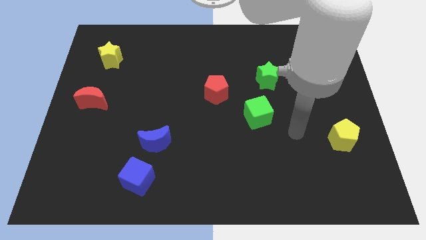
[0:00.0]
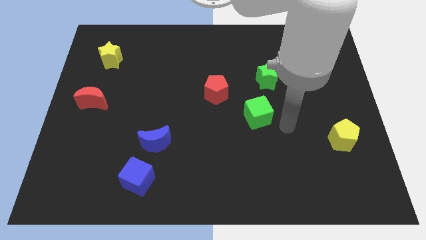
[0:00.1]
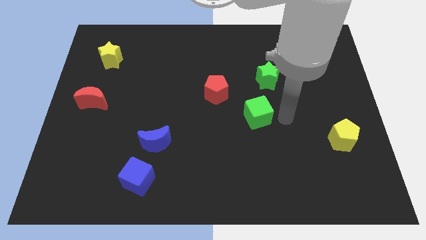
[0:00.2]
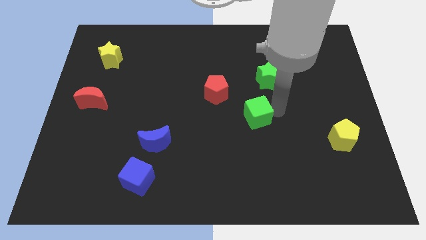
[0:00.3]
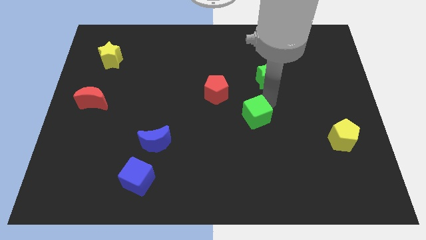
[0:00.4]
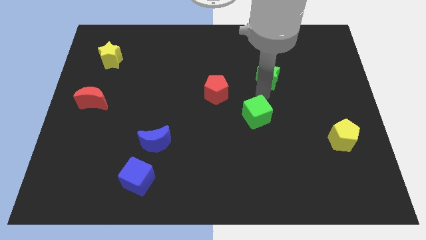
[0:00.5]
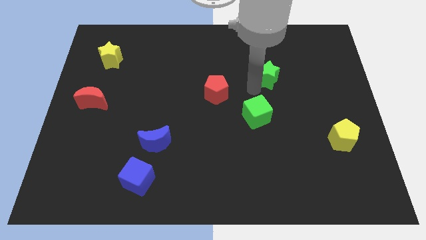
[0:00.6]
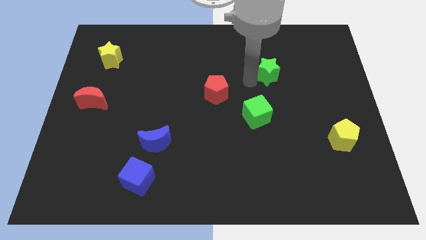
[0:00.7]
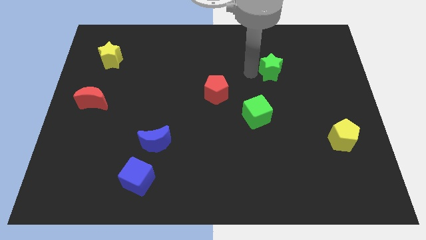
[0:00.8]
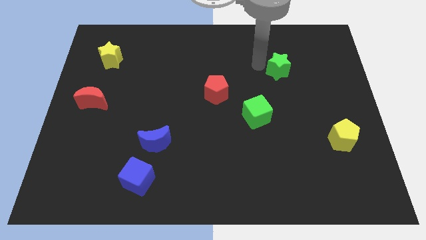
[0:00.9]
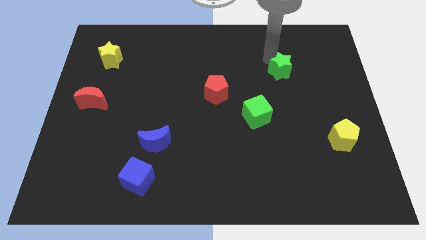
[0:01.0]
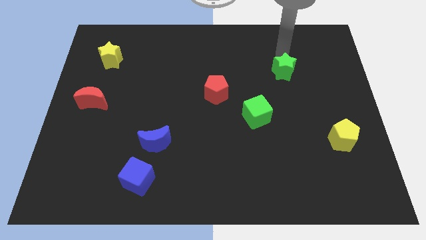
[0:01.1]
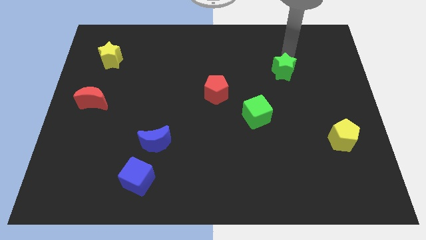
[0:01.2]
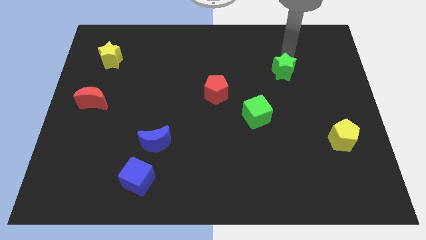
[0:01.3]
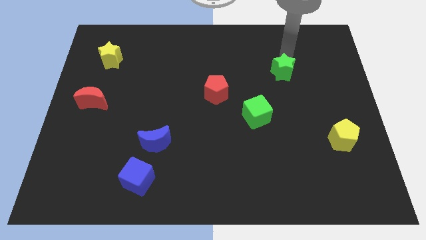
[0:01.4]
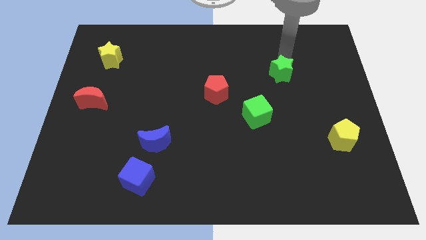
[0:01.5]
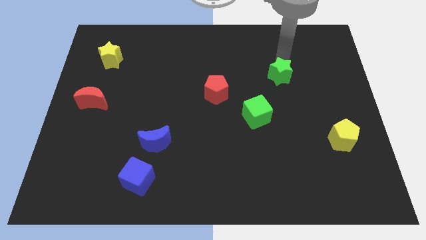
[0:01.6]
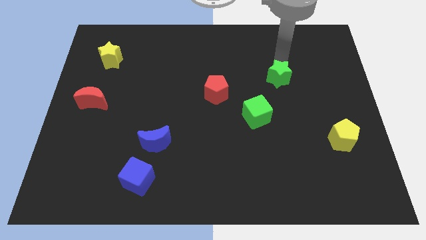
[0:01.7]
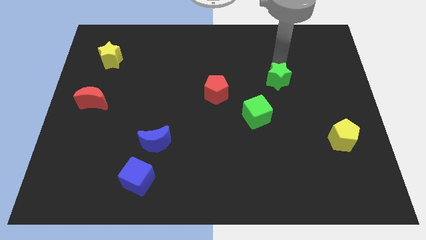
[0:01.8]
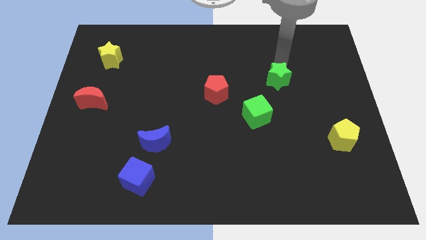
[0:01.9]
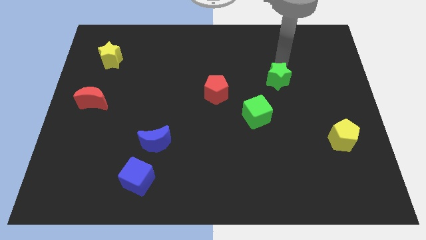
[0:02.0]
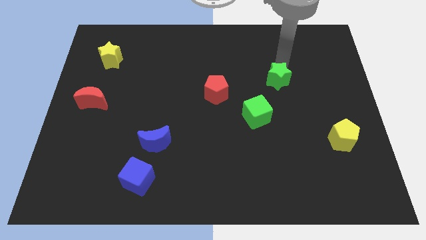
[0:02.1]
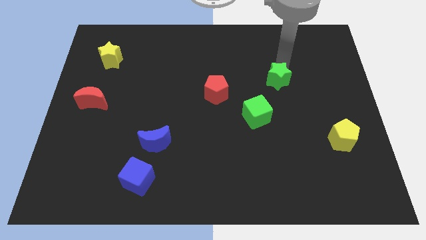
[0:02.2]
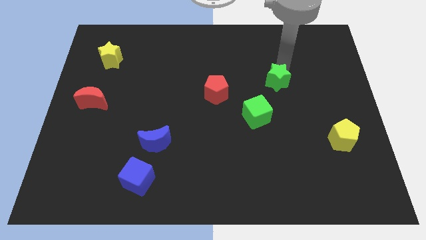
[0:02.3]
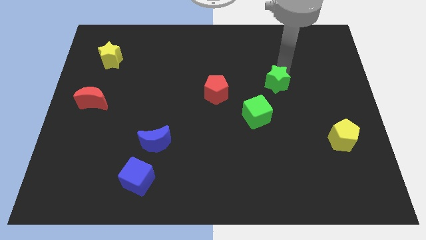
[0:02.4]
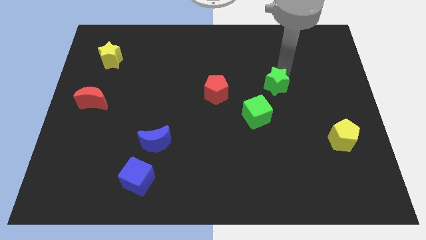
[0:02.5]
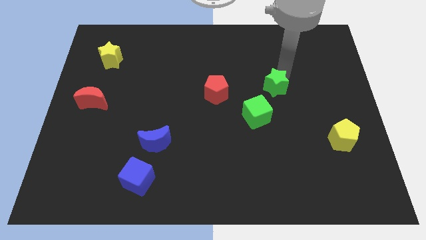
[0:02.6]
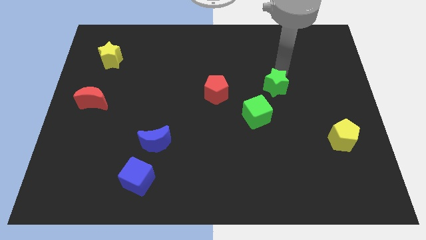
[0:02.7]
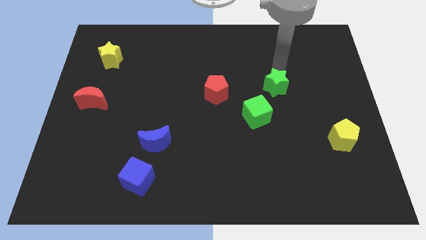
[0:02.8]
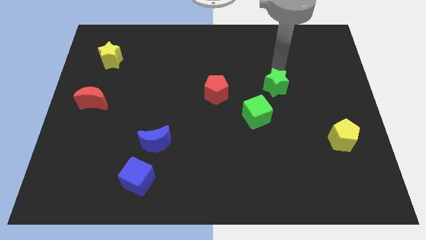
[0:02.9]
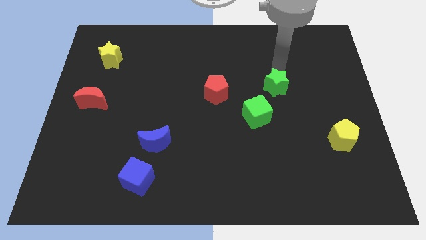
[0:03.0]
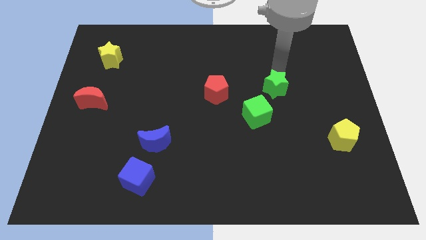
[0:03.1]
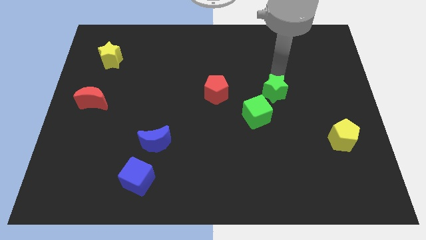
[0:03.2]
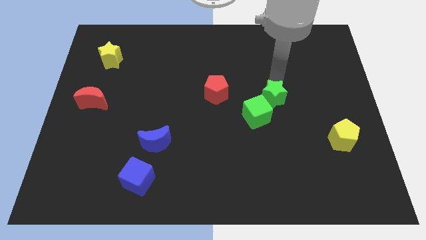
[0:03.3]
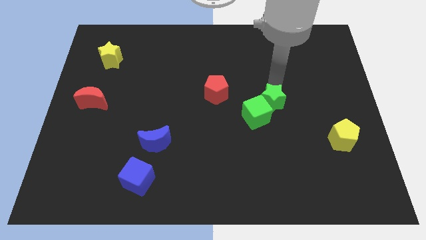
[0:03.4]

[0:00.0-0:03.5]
move the green star slightly down

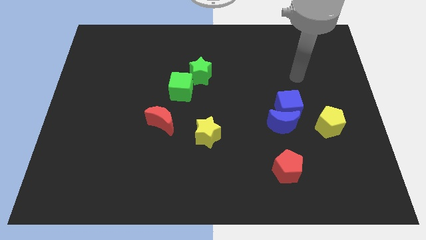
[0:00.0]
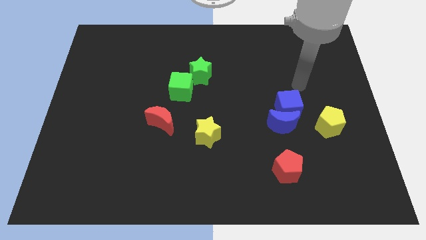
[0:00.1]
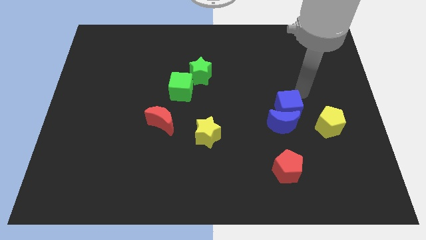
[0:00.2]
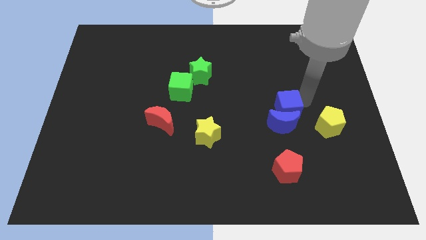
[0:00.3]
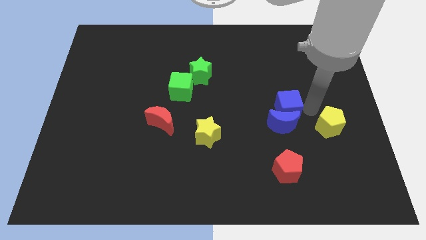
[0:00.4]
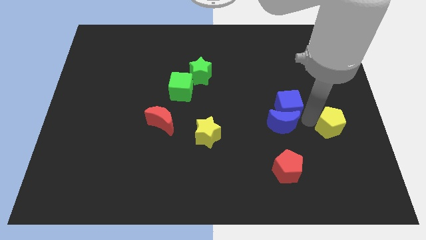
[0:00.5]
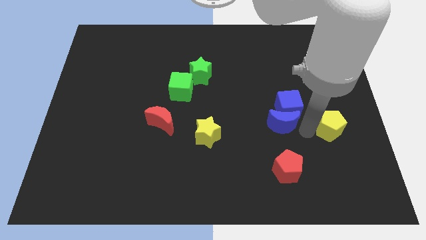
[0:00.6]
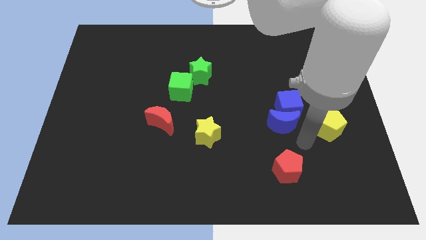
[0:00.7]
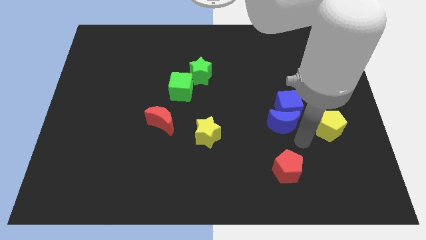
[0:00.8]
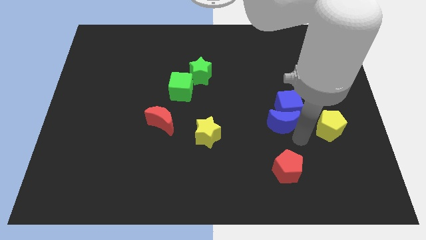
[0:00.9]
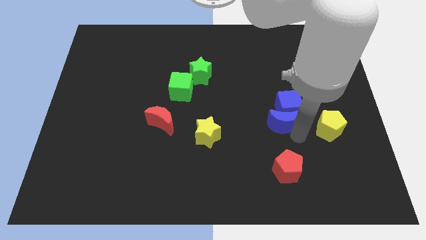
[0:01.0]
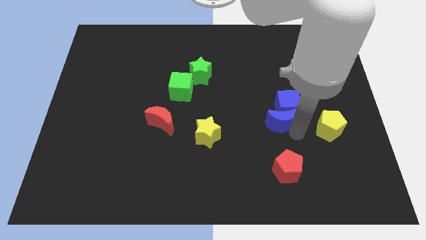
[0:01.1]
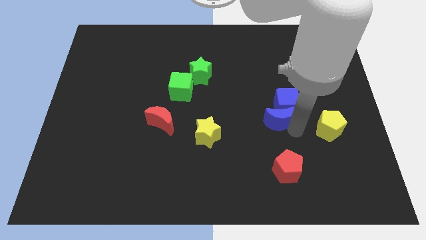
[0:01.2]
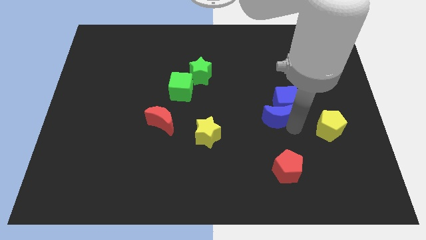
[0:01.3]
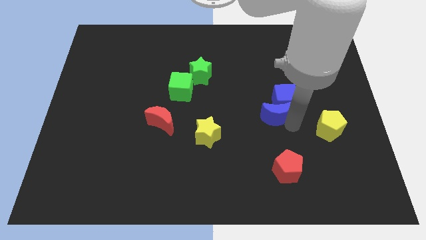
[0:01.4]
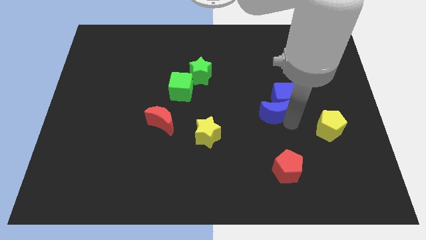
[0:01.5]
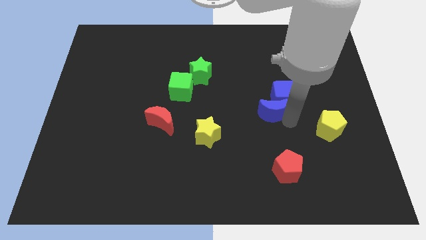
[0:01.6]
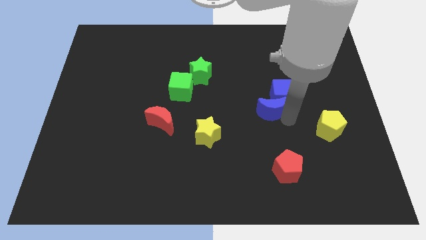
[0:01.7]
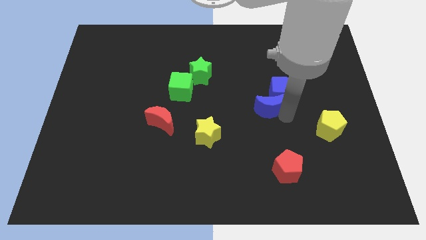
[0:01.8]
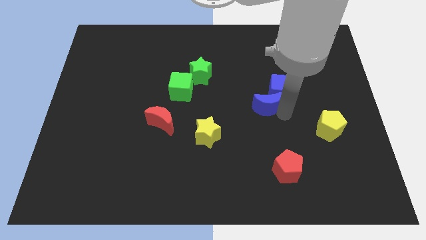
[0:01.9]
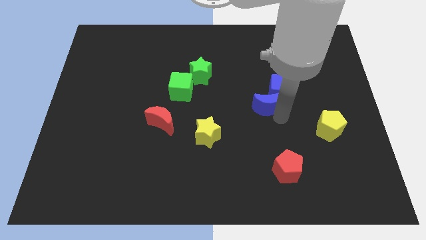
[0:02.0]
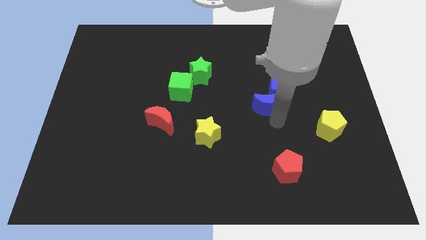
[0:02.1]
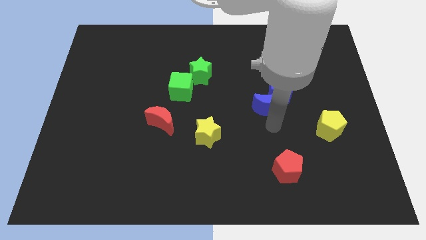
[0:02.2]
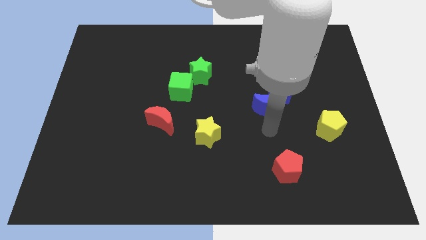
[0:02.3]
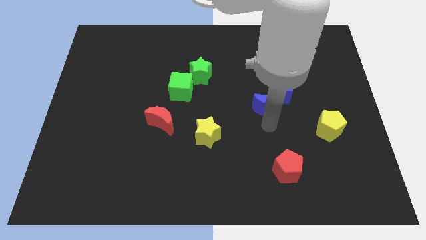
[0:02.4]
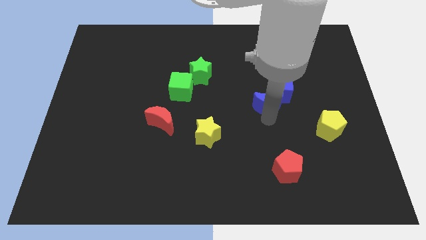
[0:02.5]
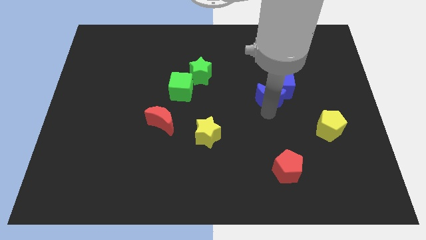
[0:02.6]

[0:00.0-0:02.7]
slide the blue moon up somewhat

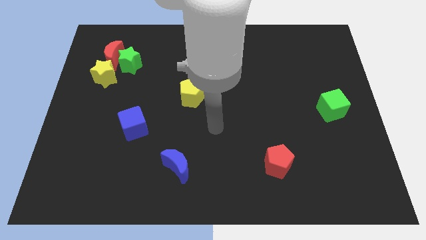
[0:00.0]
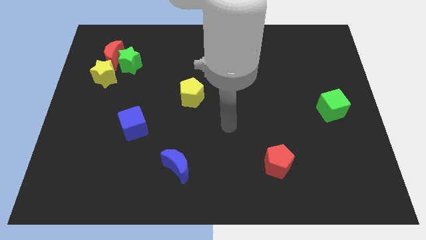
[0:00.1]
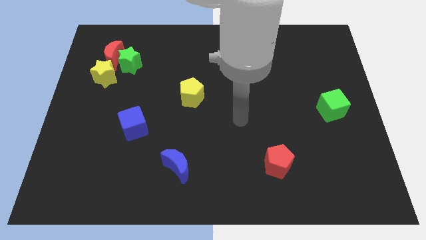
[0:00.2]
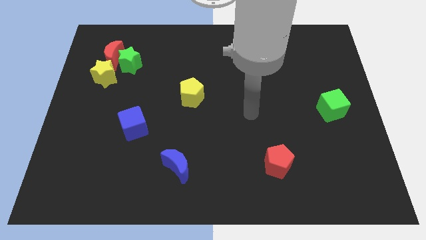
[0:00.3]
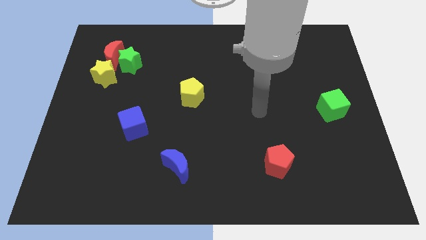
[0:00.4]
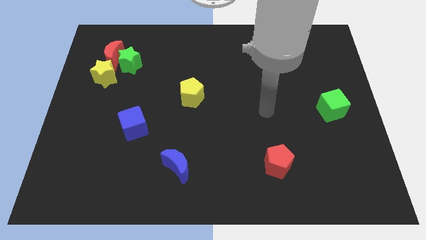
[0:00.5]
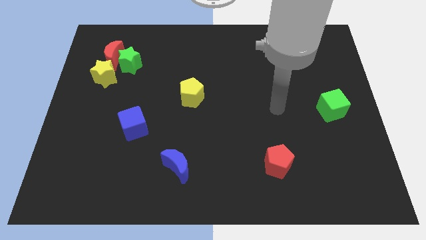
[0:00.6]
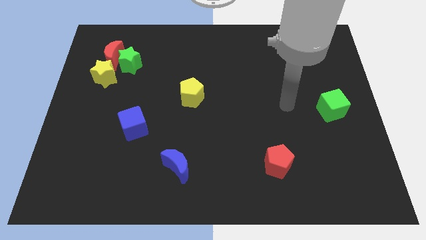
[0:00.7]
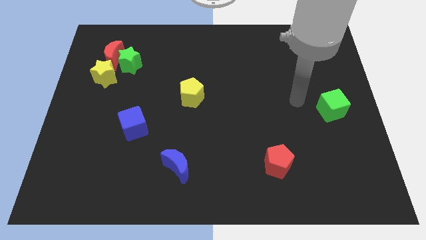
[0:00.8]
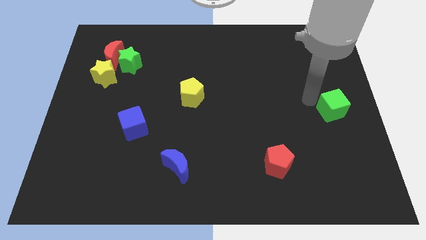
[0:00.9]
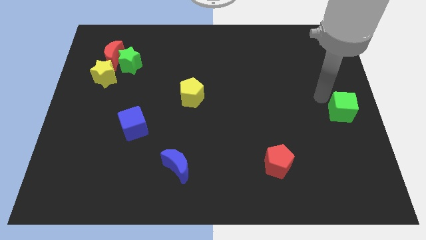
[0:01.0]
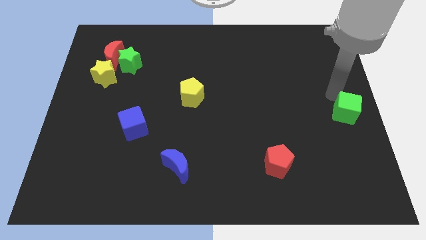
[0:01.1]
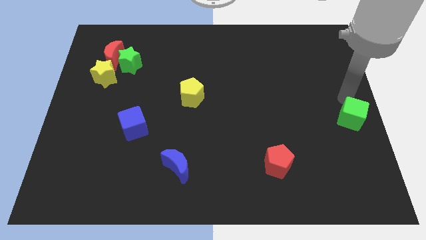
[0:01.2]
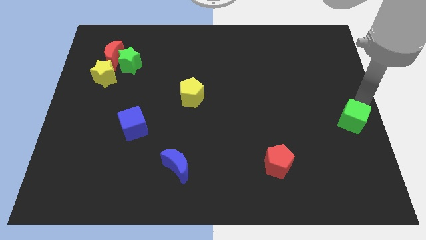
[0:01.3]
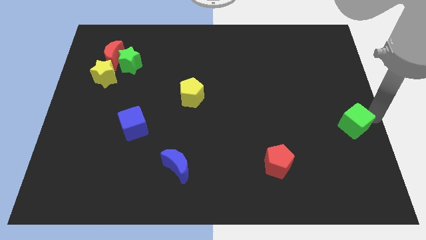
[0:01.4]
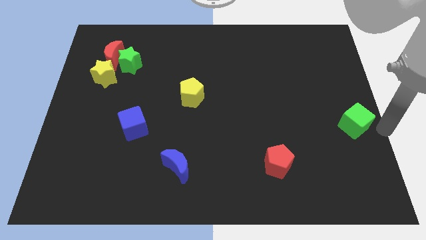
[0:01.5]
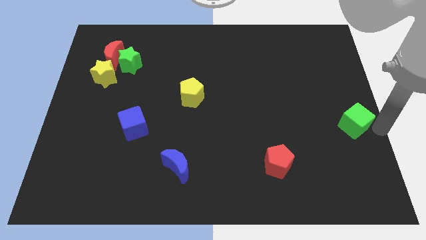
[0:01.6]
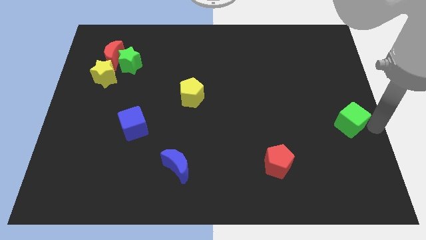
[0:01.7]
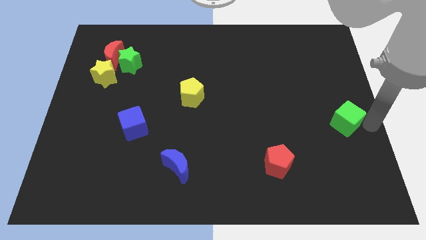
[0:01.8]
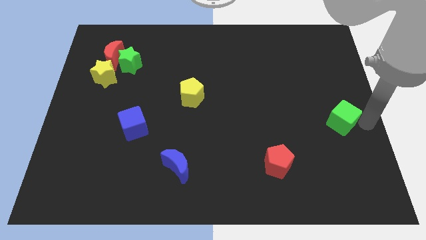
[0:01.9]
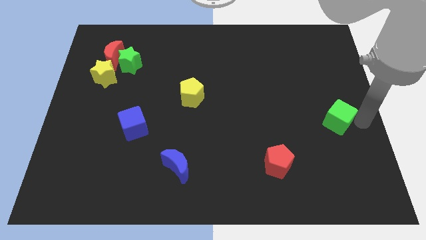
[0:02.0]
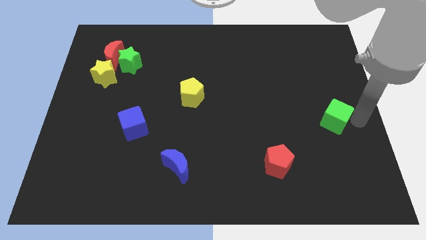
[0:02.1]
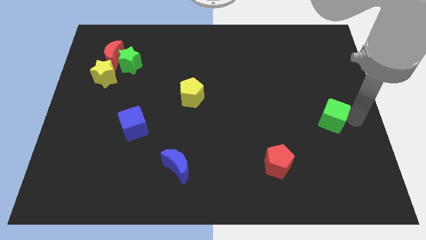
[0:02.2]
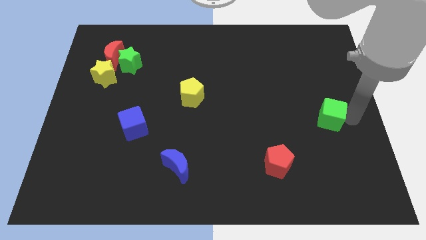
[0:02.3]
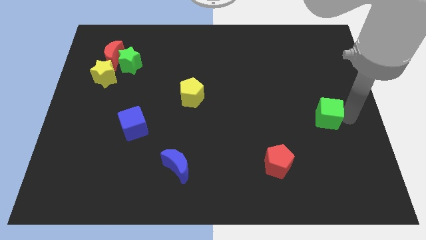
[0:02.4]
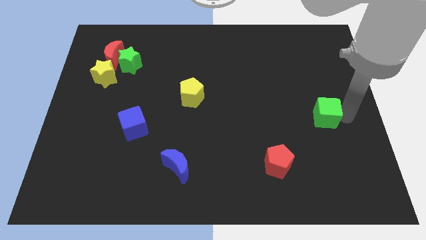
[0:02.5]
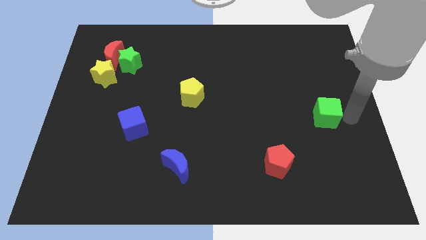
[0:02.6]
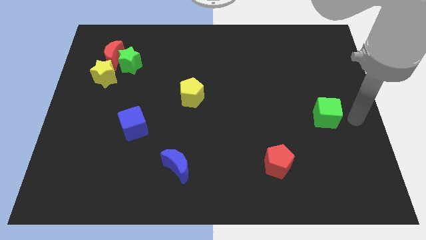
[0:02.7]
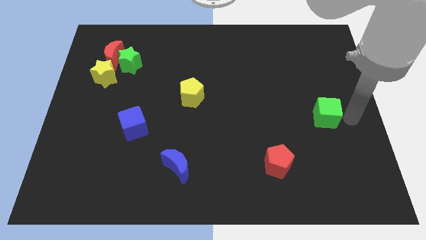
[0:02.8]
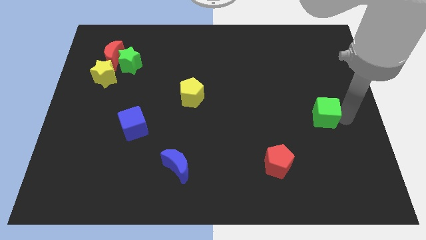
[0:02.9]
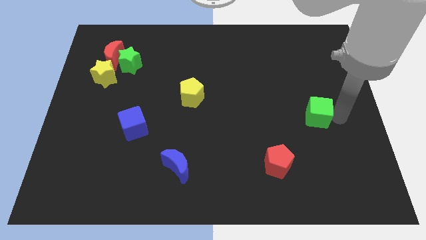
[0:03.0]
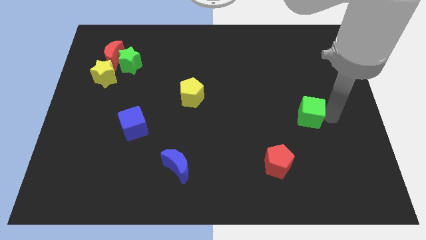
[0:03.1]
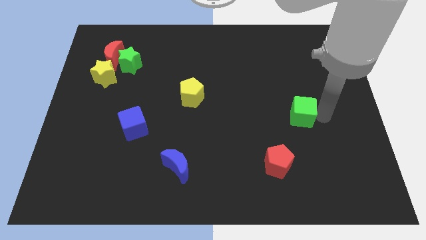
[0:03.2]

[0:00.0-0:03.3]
slightly move the green cube left
